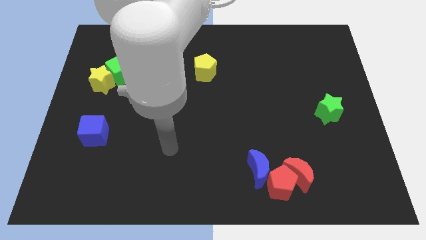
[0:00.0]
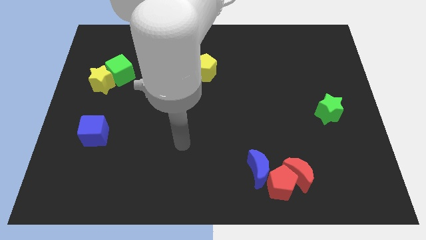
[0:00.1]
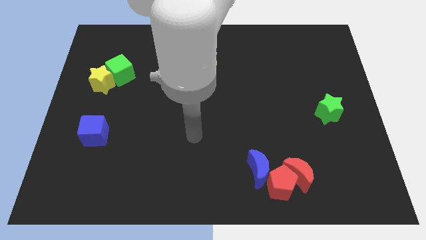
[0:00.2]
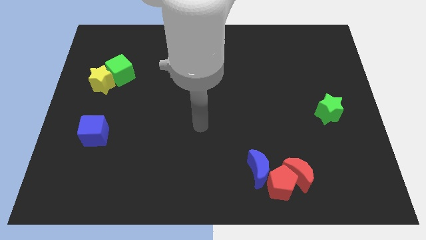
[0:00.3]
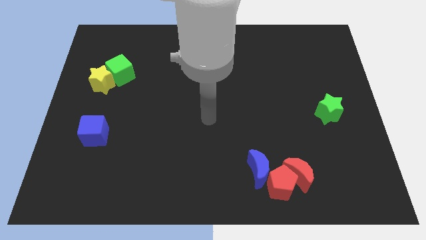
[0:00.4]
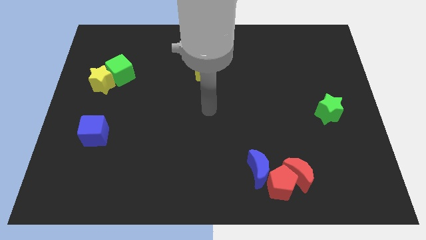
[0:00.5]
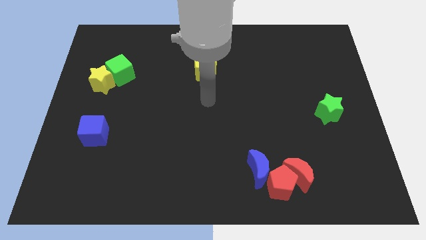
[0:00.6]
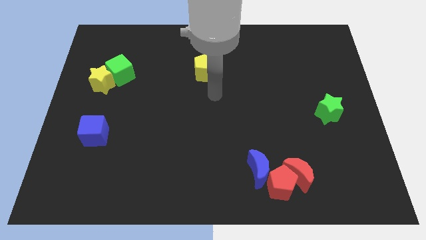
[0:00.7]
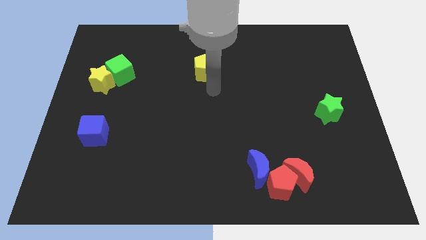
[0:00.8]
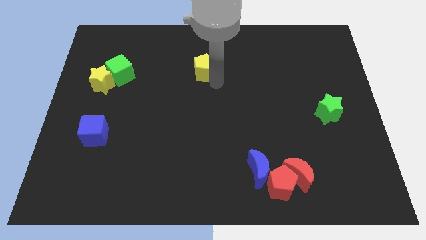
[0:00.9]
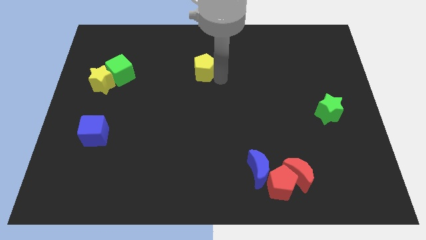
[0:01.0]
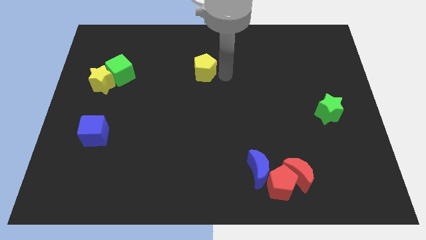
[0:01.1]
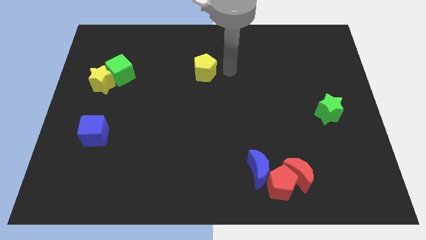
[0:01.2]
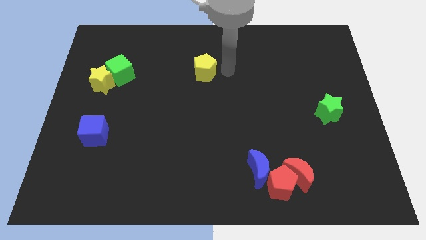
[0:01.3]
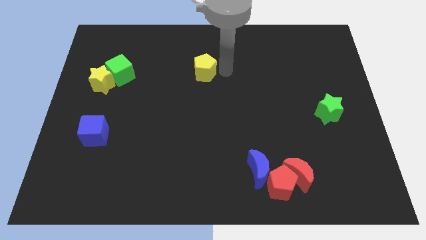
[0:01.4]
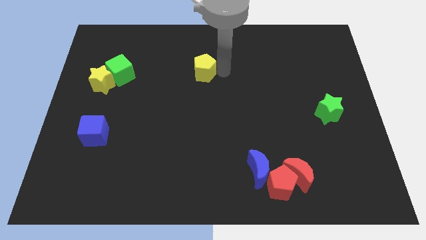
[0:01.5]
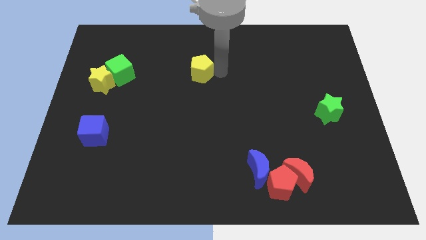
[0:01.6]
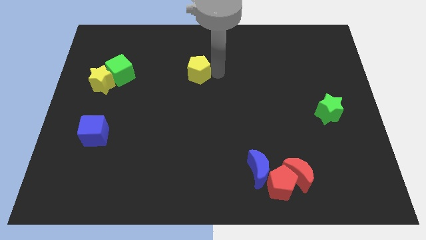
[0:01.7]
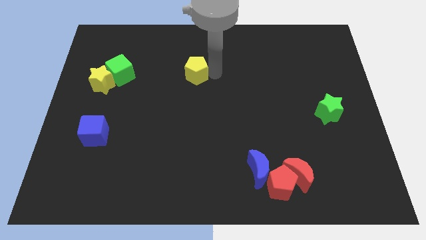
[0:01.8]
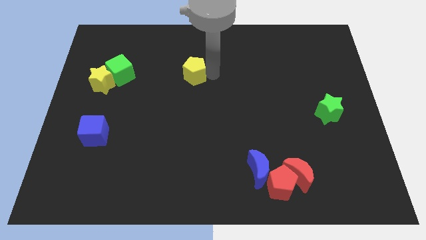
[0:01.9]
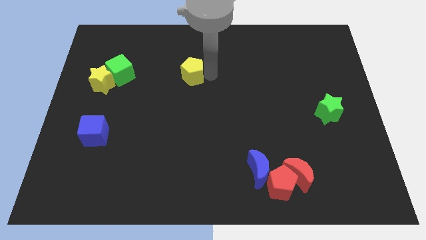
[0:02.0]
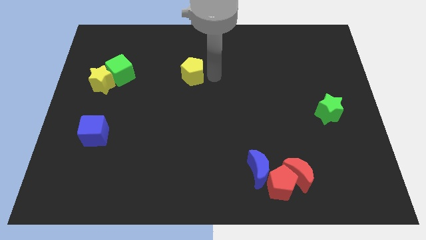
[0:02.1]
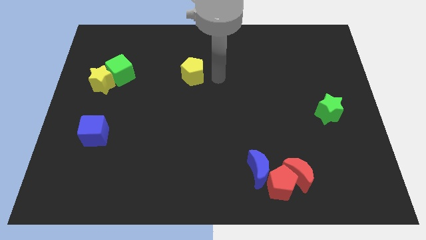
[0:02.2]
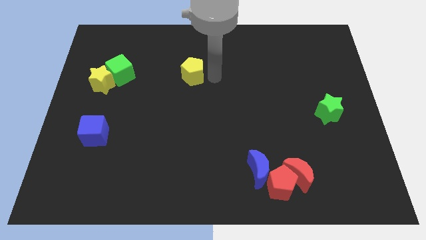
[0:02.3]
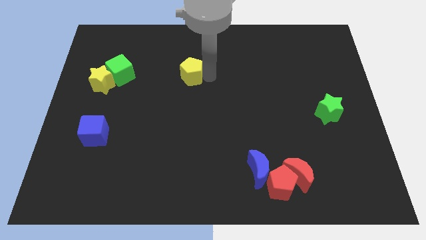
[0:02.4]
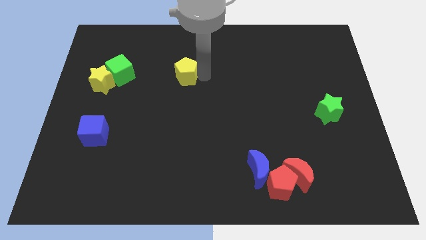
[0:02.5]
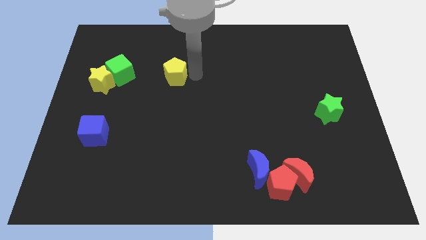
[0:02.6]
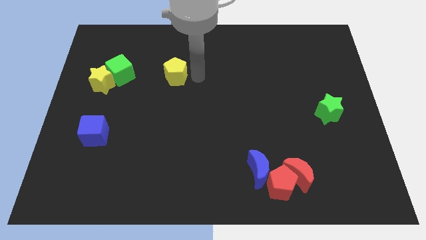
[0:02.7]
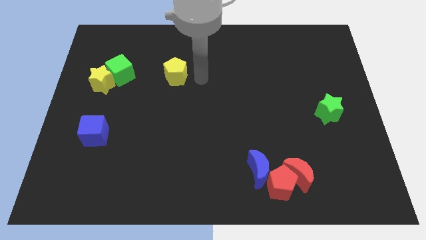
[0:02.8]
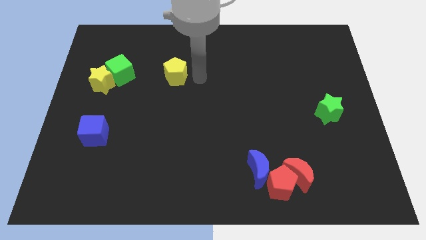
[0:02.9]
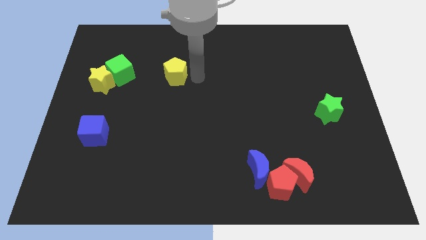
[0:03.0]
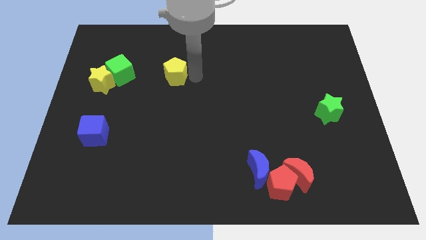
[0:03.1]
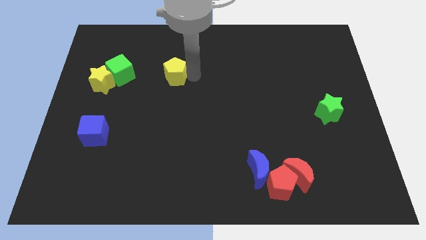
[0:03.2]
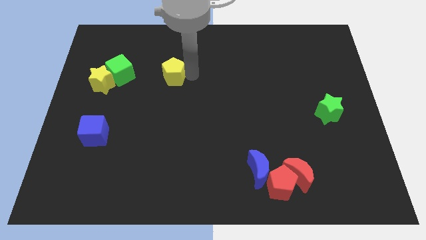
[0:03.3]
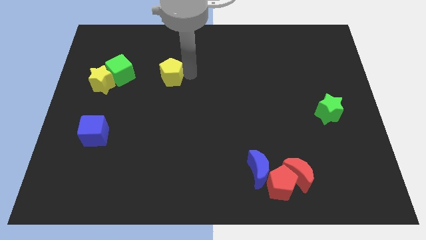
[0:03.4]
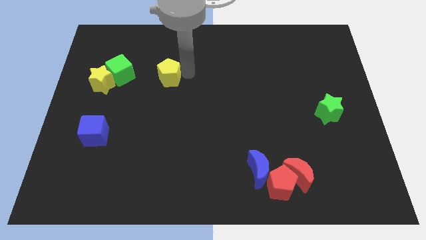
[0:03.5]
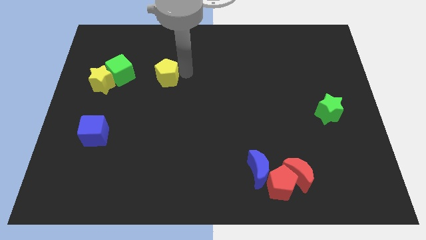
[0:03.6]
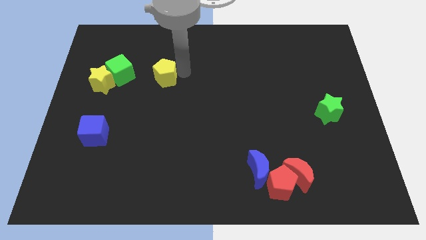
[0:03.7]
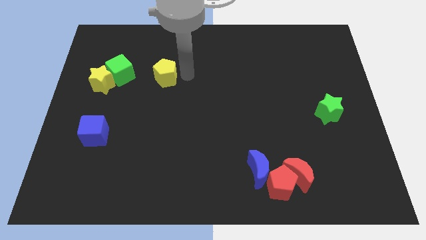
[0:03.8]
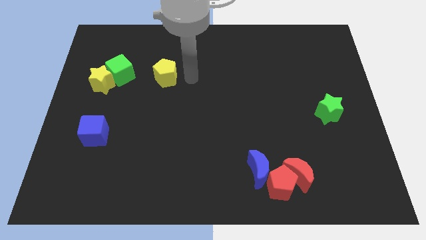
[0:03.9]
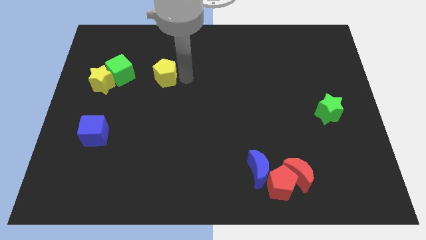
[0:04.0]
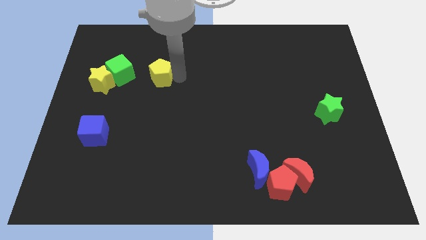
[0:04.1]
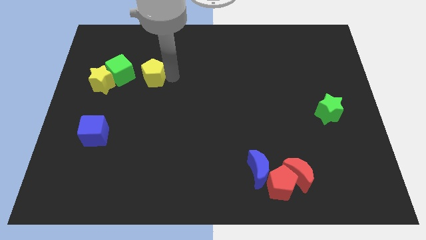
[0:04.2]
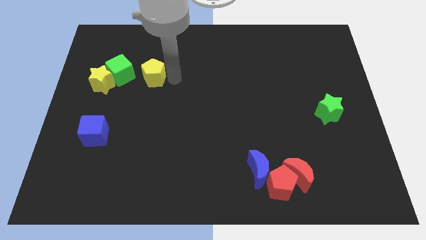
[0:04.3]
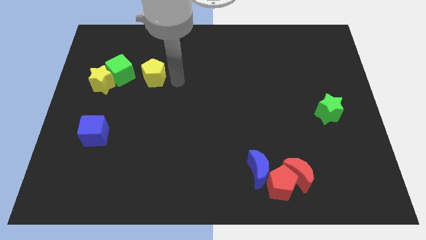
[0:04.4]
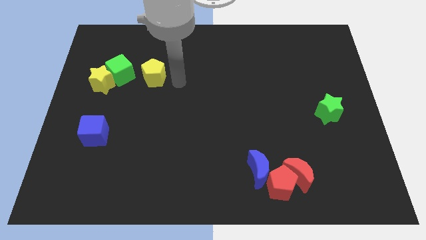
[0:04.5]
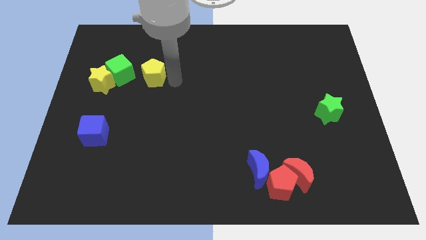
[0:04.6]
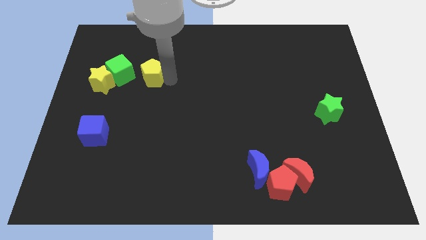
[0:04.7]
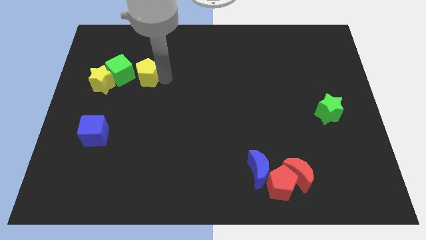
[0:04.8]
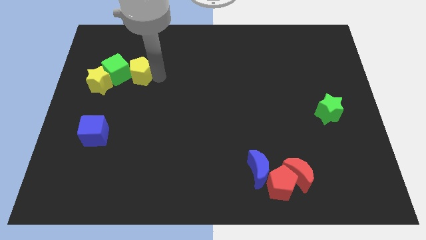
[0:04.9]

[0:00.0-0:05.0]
push the yellow pentagon to the green cube

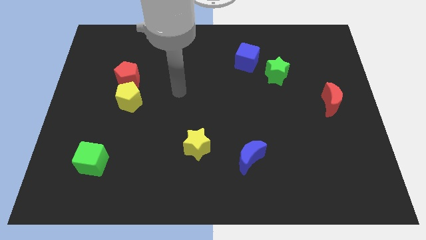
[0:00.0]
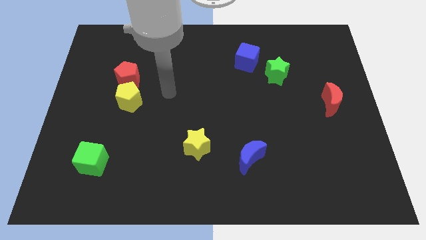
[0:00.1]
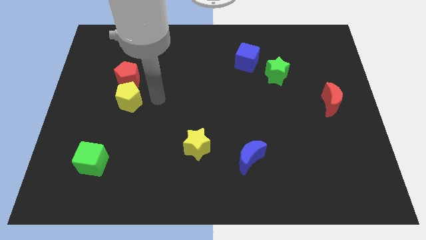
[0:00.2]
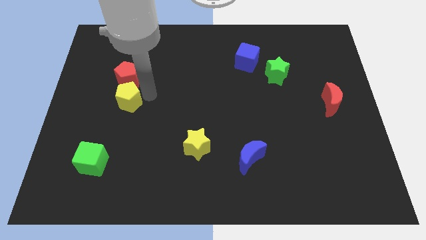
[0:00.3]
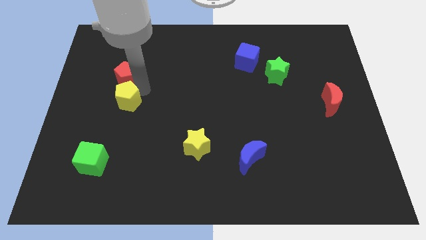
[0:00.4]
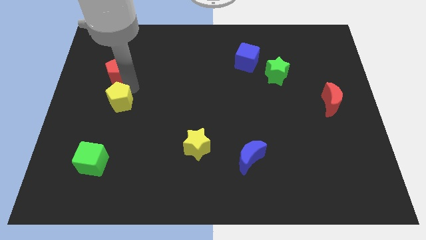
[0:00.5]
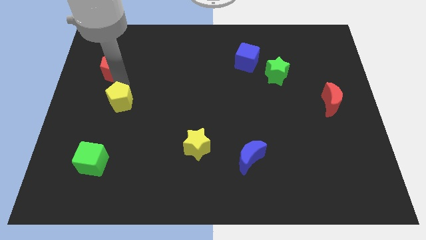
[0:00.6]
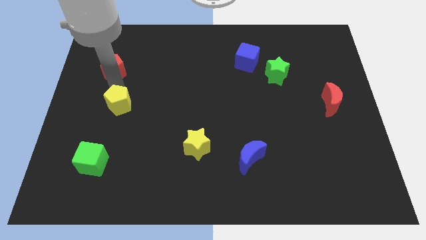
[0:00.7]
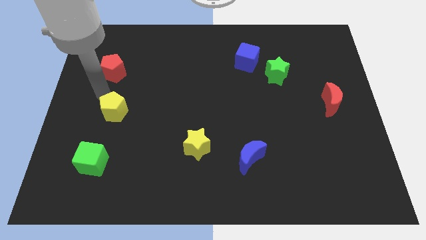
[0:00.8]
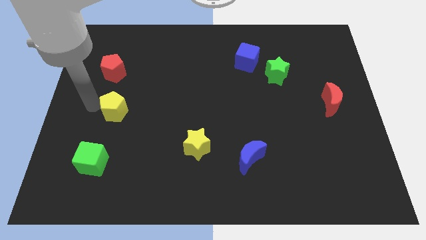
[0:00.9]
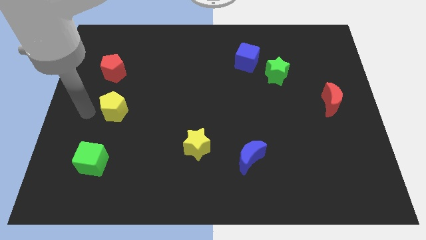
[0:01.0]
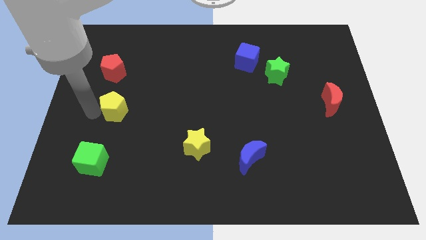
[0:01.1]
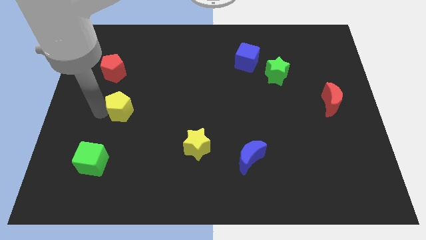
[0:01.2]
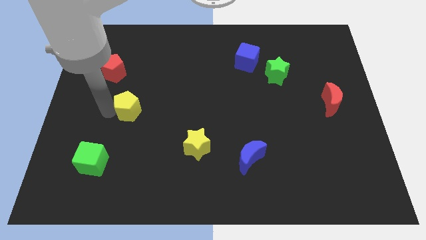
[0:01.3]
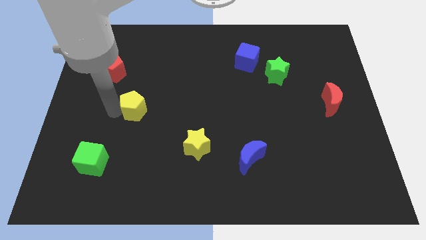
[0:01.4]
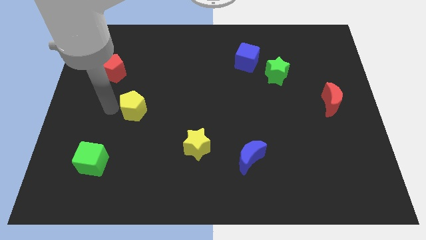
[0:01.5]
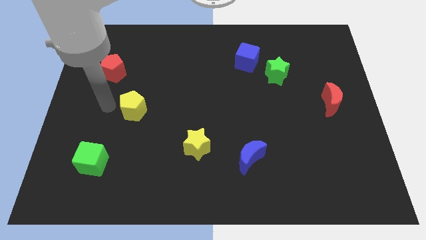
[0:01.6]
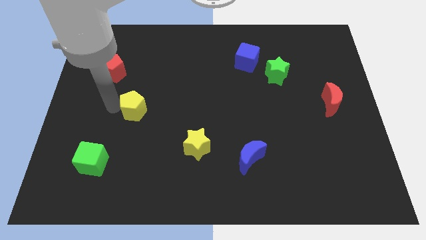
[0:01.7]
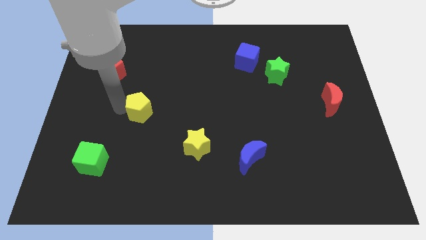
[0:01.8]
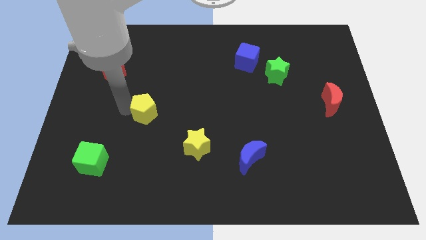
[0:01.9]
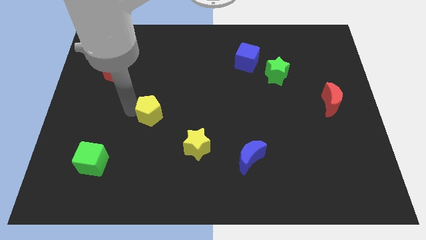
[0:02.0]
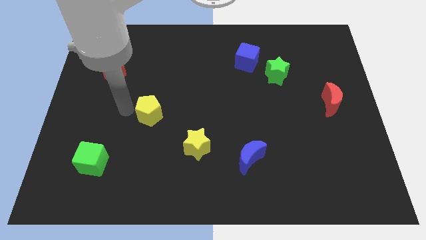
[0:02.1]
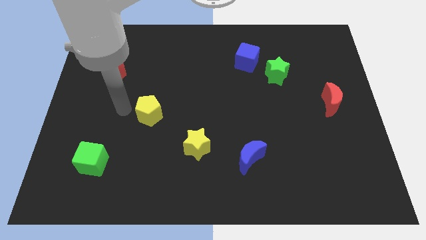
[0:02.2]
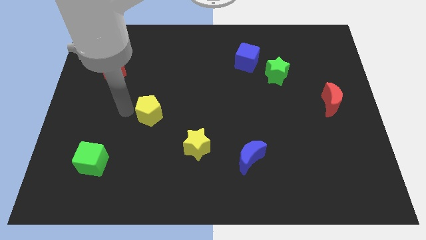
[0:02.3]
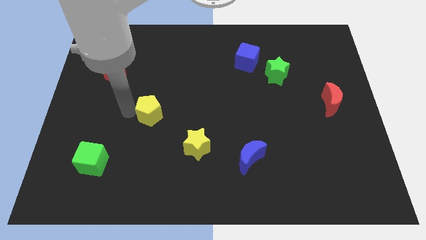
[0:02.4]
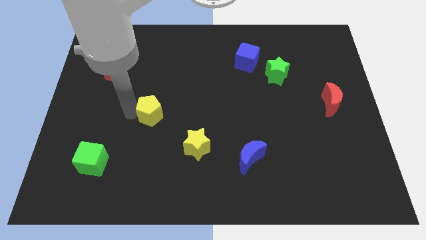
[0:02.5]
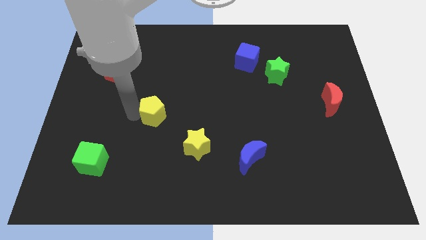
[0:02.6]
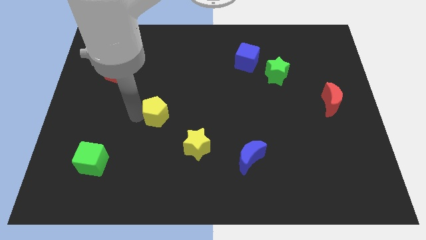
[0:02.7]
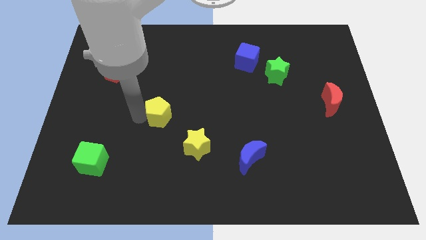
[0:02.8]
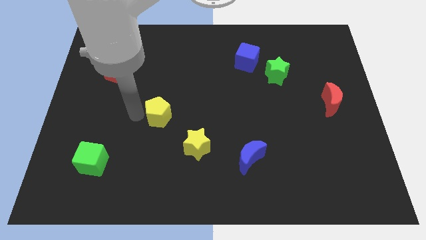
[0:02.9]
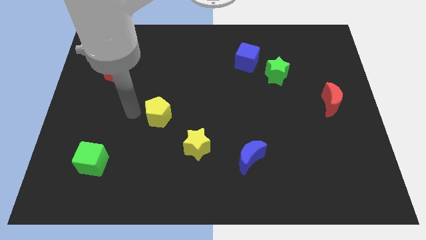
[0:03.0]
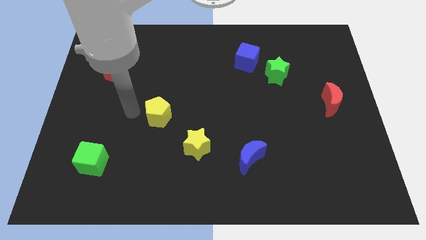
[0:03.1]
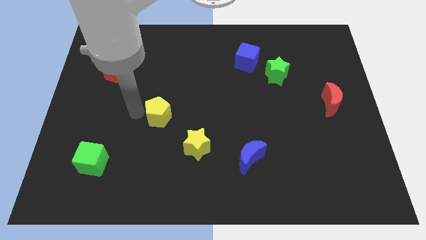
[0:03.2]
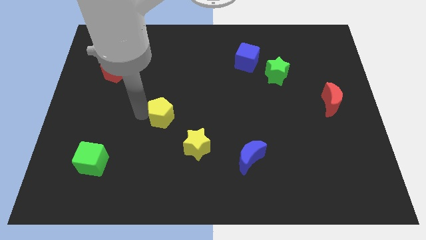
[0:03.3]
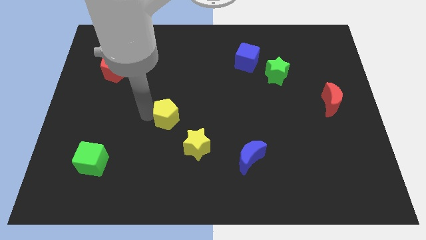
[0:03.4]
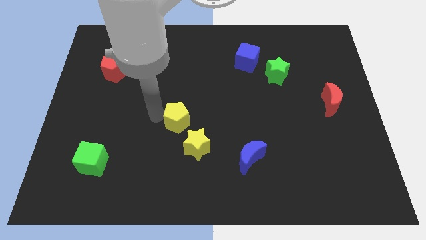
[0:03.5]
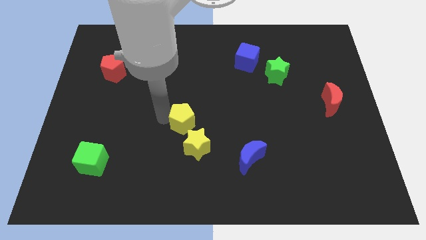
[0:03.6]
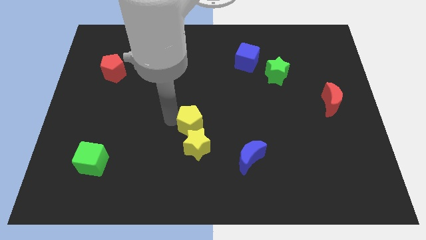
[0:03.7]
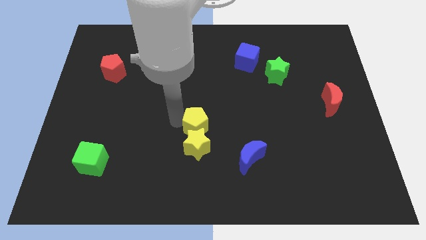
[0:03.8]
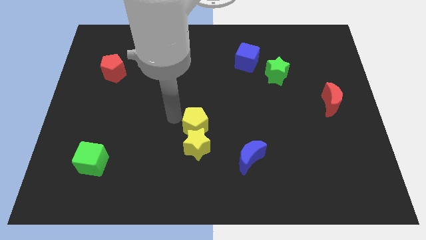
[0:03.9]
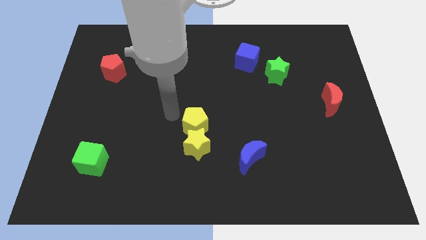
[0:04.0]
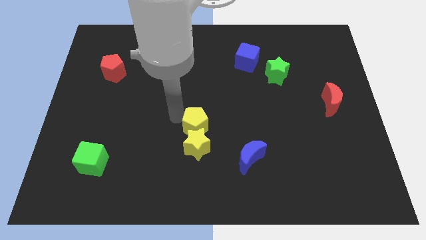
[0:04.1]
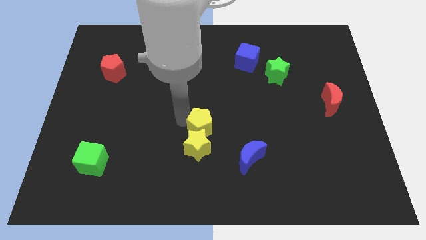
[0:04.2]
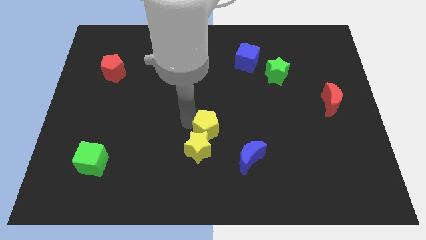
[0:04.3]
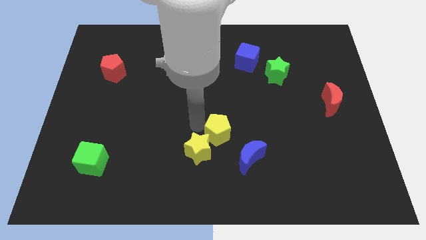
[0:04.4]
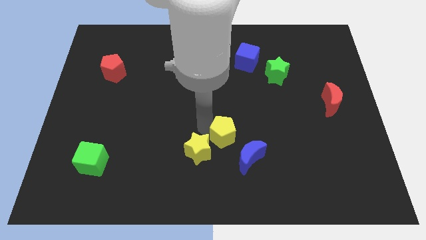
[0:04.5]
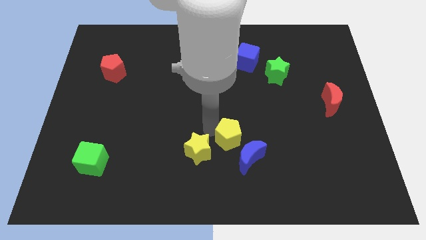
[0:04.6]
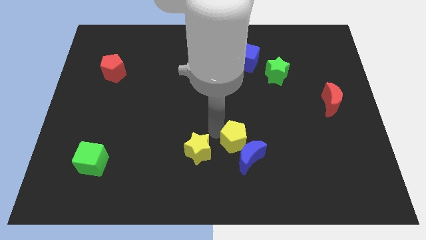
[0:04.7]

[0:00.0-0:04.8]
move the yellow pentagon close to the blue moon
